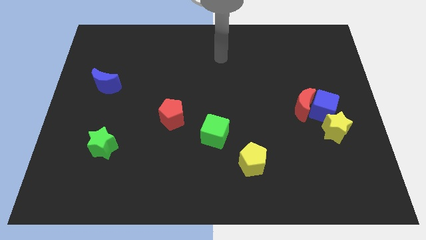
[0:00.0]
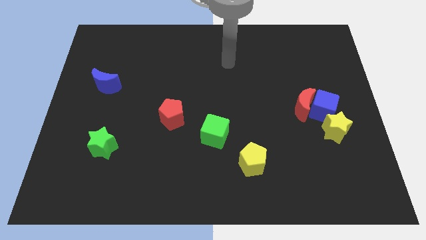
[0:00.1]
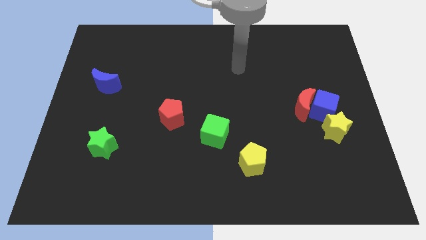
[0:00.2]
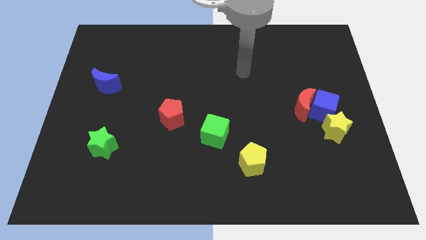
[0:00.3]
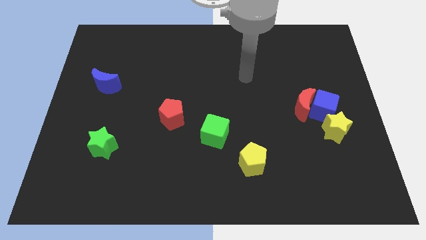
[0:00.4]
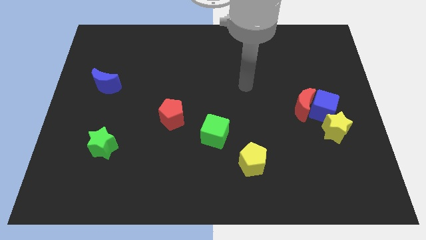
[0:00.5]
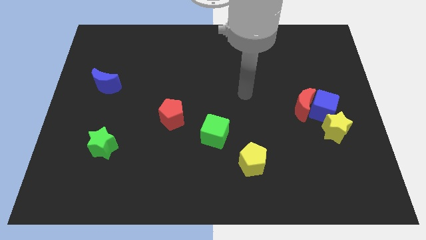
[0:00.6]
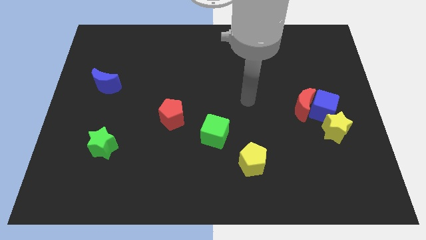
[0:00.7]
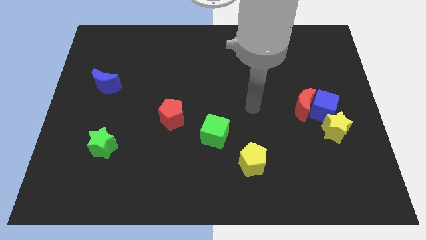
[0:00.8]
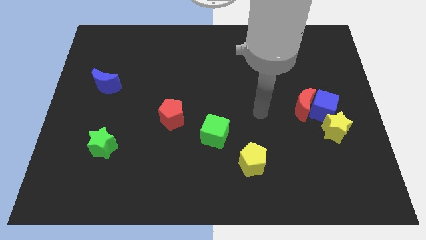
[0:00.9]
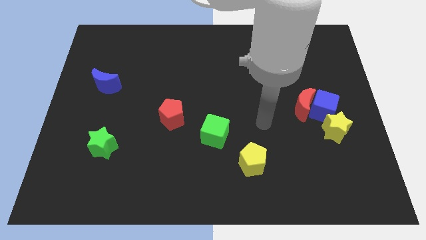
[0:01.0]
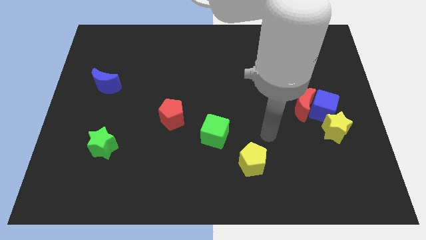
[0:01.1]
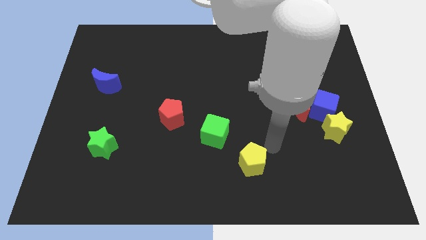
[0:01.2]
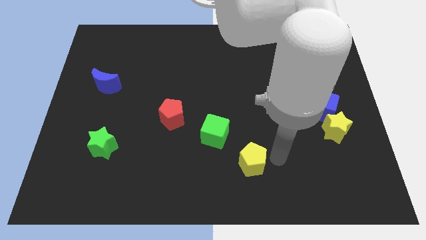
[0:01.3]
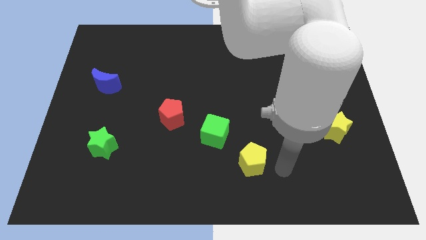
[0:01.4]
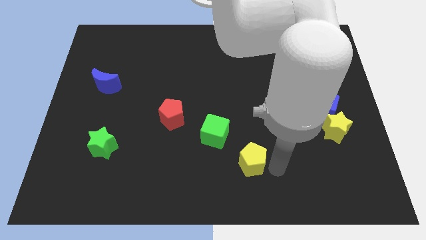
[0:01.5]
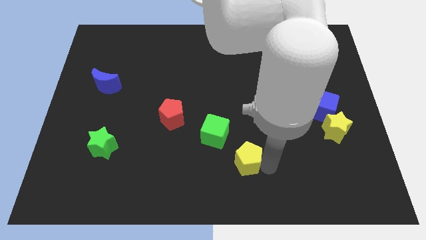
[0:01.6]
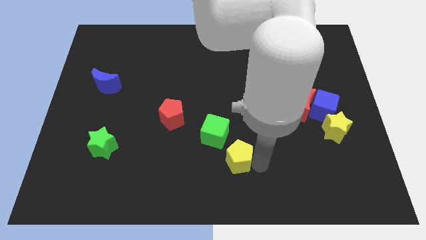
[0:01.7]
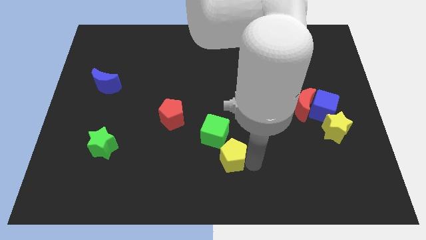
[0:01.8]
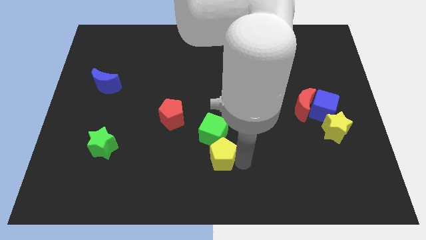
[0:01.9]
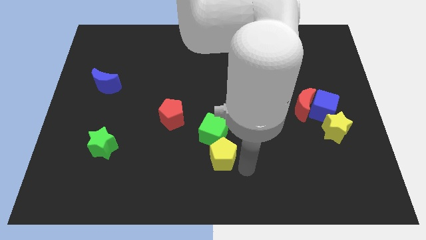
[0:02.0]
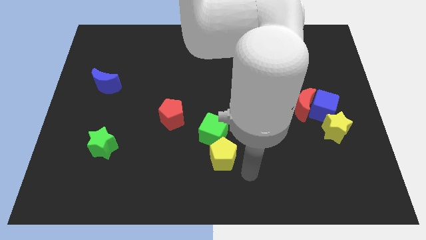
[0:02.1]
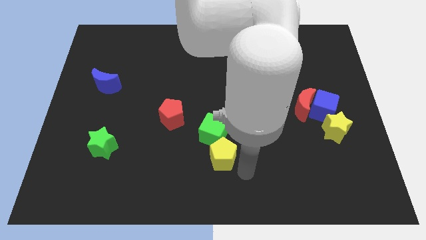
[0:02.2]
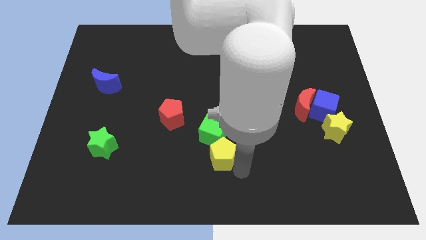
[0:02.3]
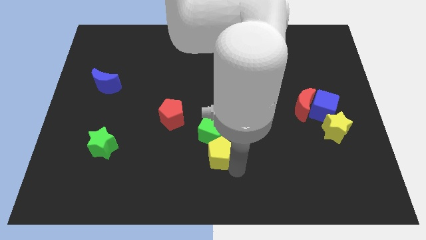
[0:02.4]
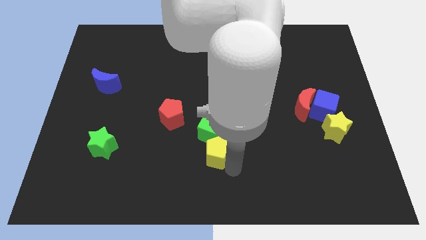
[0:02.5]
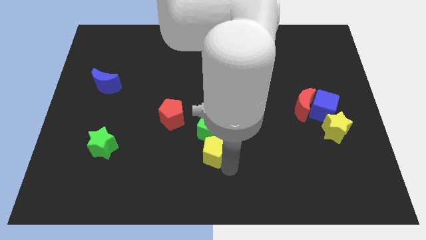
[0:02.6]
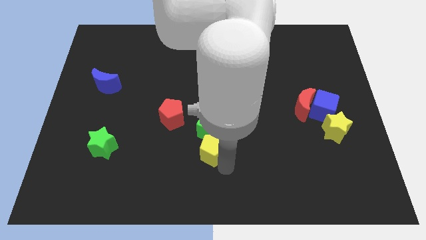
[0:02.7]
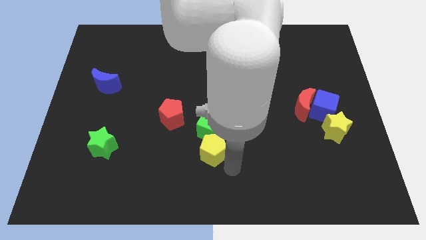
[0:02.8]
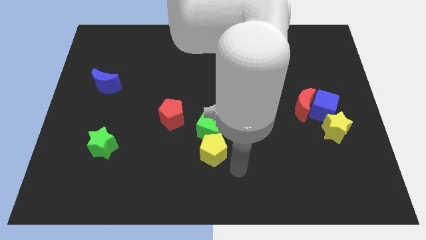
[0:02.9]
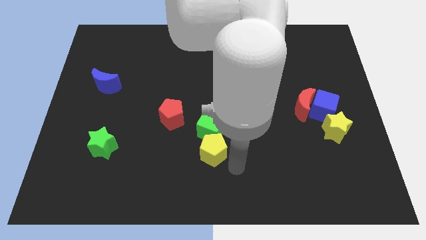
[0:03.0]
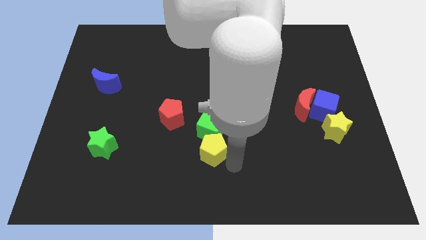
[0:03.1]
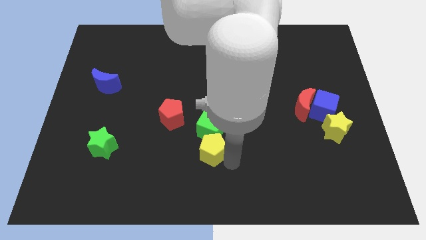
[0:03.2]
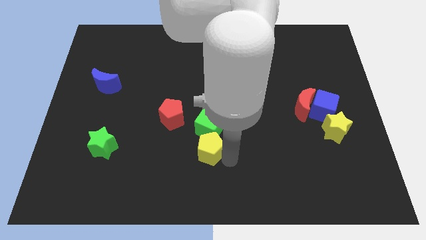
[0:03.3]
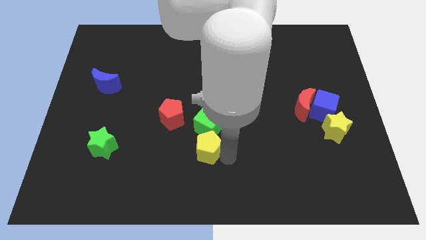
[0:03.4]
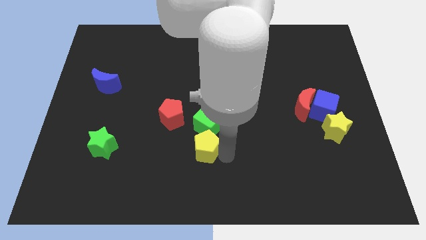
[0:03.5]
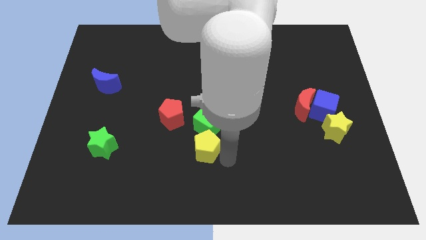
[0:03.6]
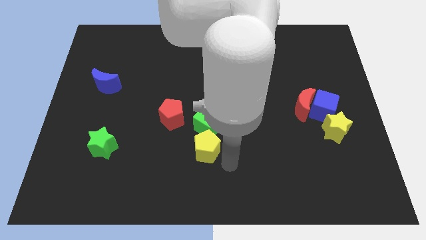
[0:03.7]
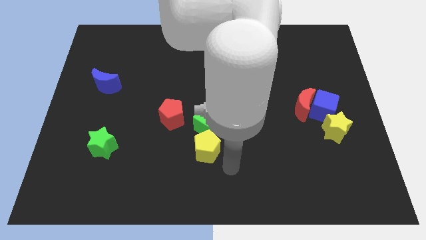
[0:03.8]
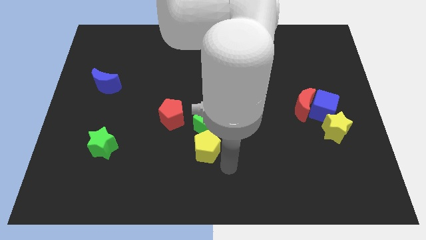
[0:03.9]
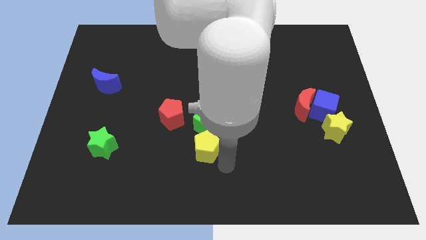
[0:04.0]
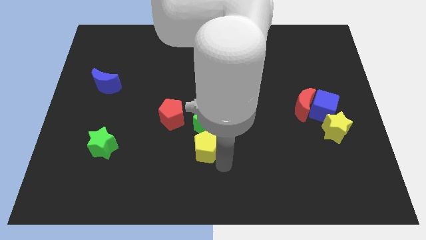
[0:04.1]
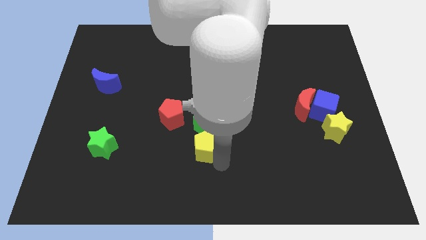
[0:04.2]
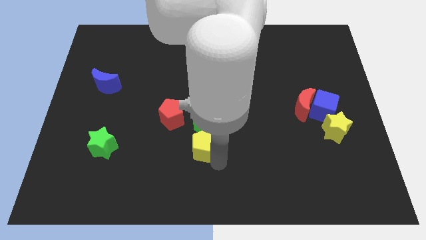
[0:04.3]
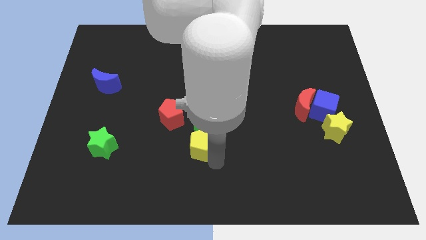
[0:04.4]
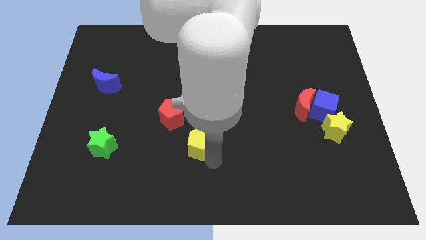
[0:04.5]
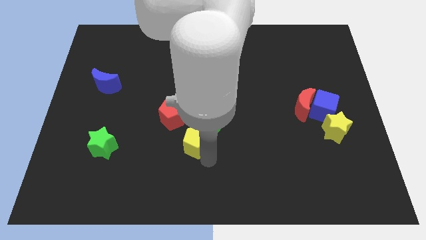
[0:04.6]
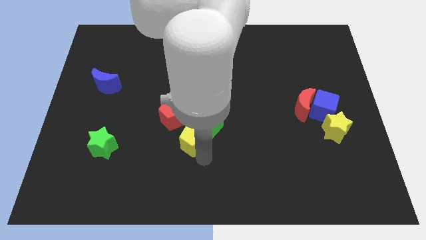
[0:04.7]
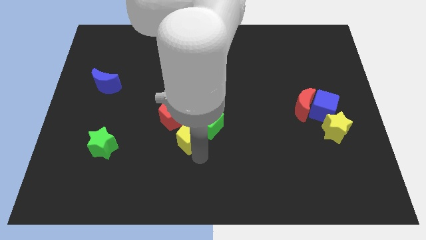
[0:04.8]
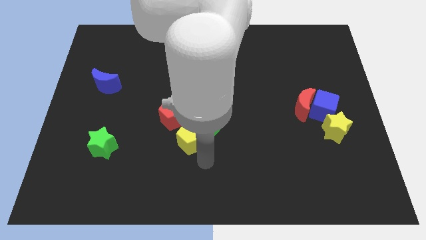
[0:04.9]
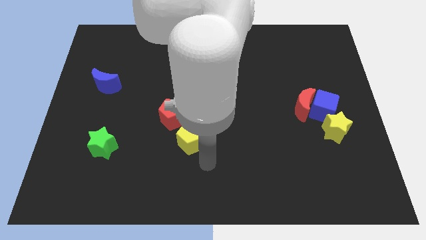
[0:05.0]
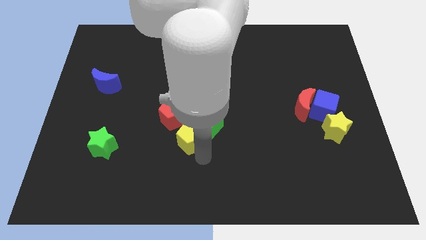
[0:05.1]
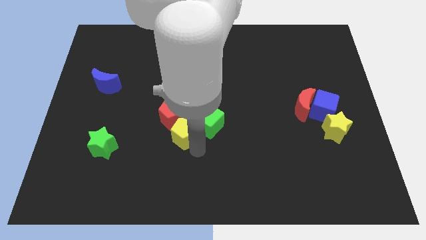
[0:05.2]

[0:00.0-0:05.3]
slide the yellow pentagon to the red pentagon

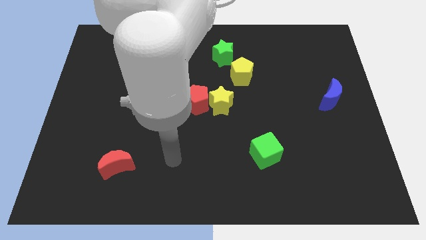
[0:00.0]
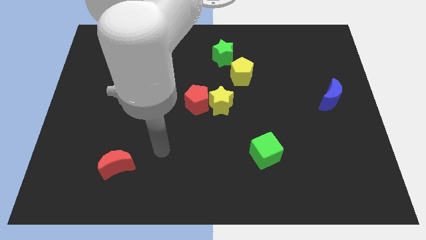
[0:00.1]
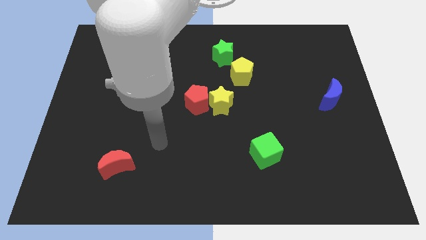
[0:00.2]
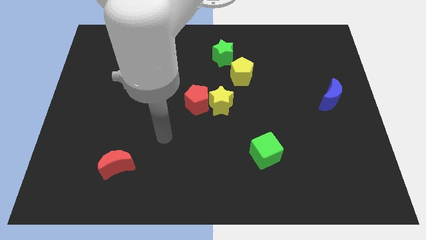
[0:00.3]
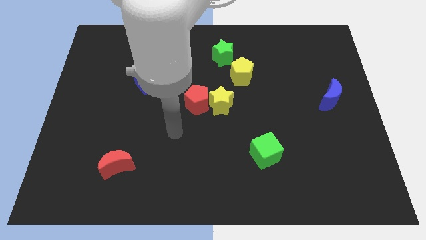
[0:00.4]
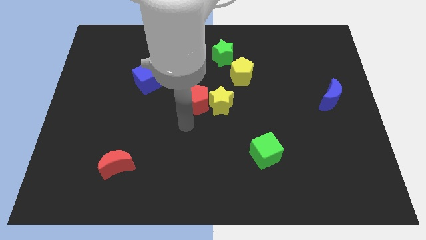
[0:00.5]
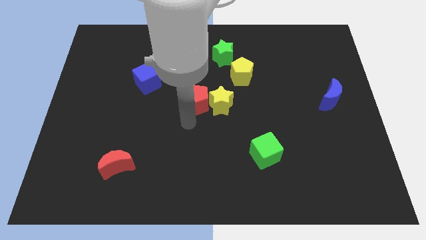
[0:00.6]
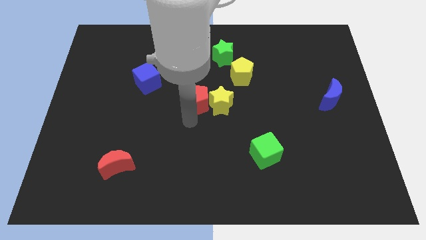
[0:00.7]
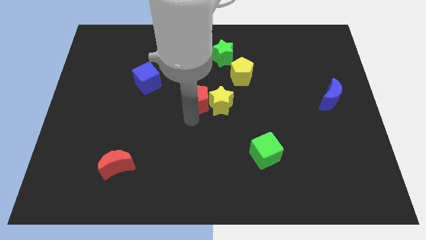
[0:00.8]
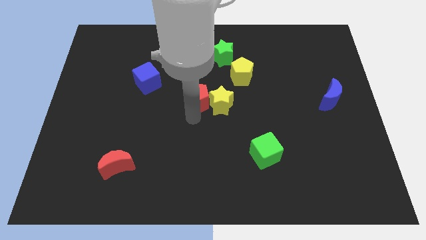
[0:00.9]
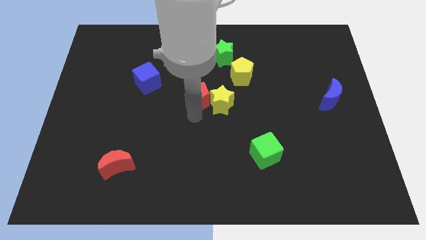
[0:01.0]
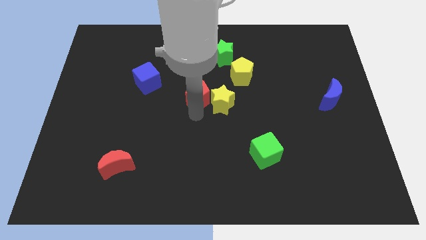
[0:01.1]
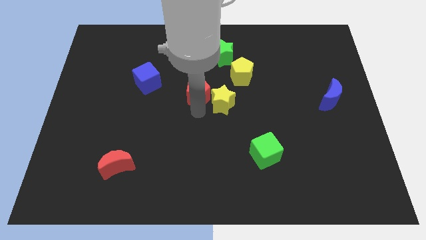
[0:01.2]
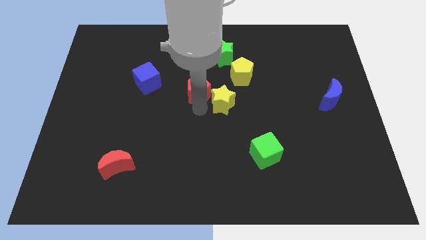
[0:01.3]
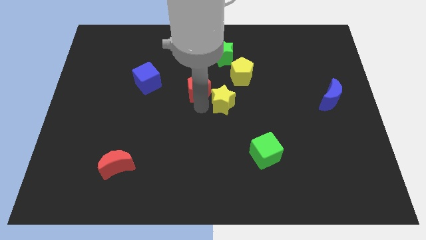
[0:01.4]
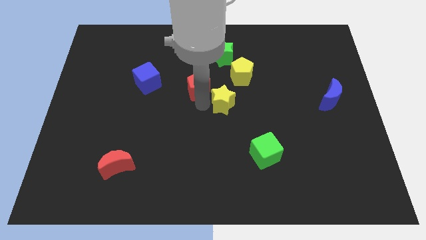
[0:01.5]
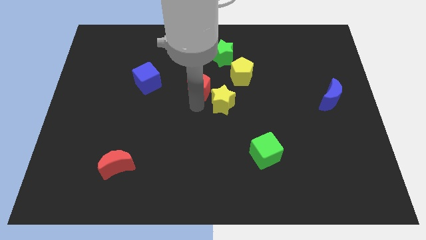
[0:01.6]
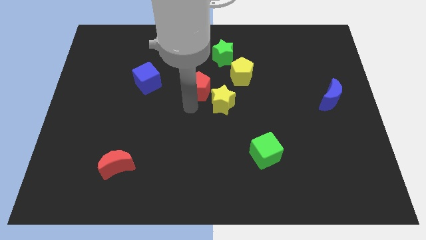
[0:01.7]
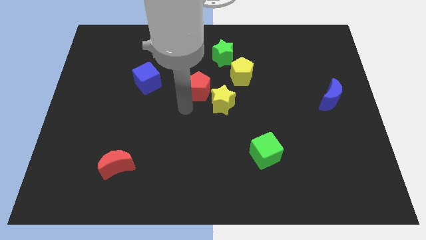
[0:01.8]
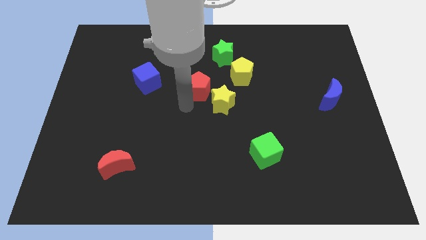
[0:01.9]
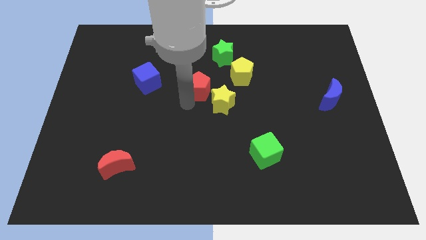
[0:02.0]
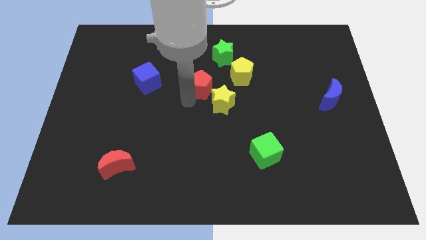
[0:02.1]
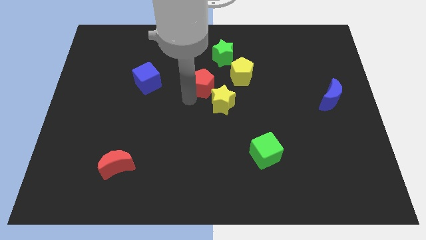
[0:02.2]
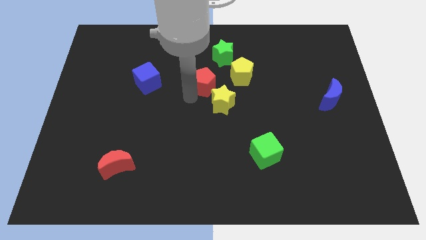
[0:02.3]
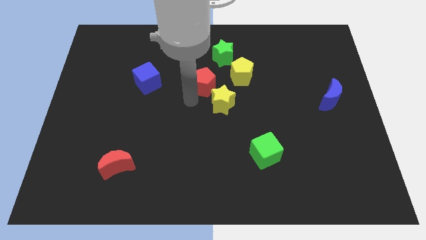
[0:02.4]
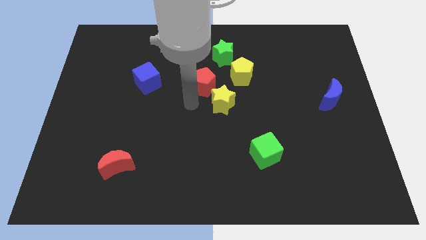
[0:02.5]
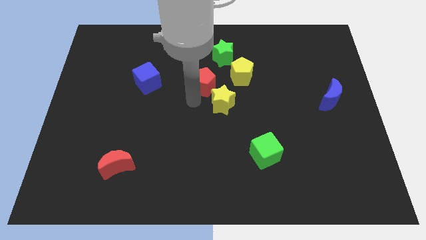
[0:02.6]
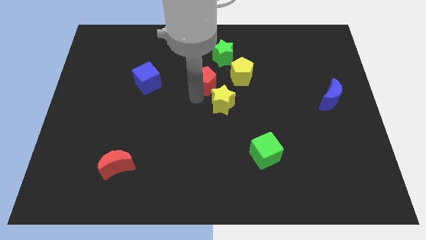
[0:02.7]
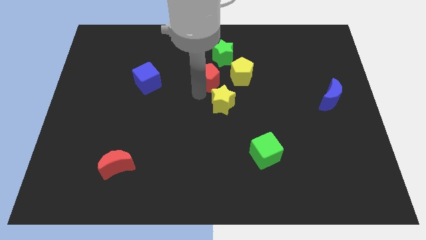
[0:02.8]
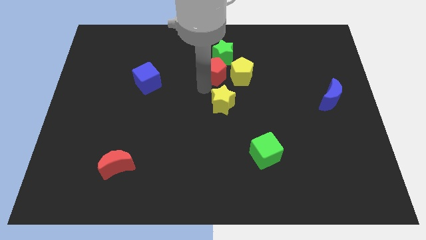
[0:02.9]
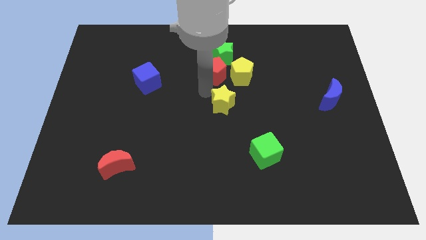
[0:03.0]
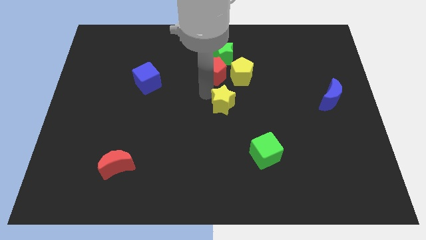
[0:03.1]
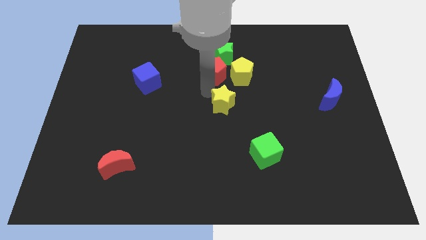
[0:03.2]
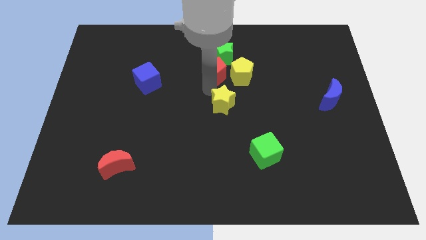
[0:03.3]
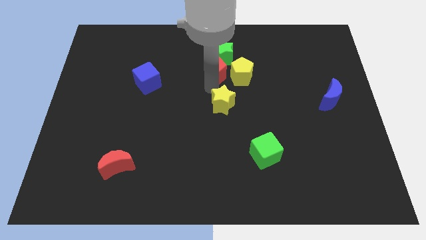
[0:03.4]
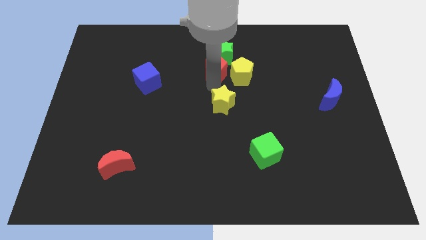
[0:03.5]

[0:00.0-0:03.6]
put the red pentagon to the green star
